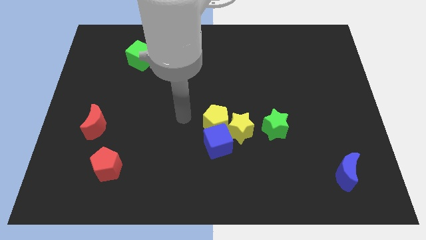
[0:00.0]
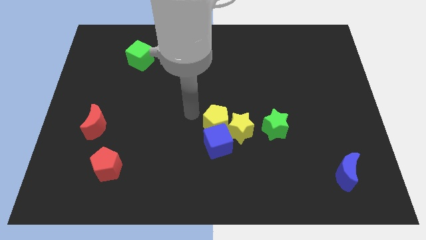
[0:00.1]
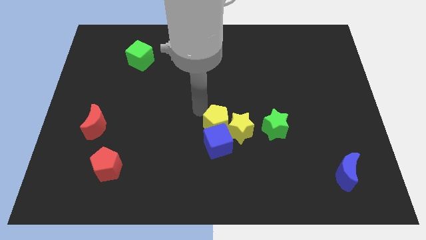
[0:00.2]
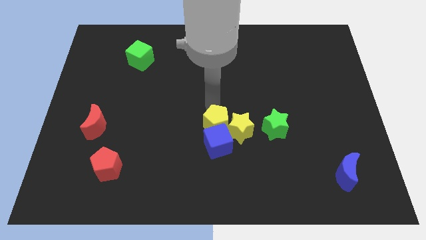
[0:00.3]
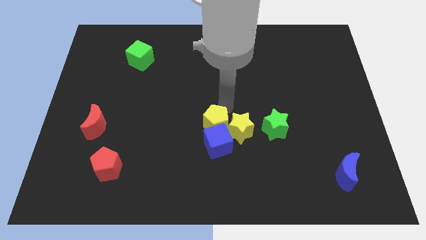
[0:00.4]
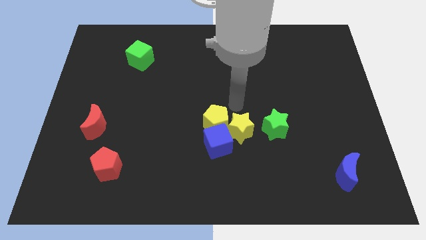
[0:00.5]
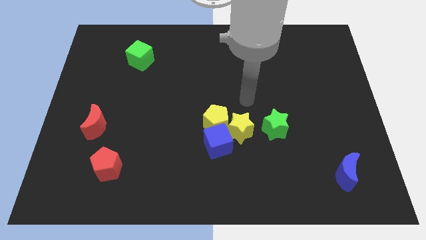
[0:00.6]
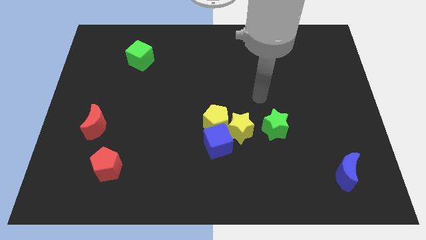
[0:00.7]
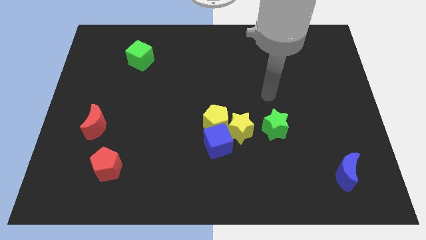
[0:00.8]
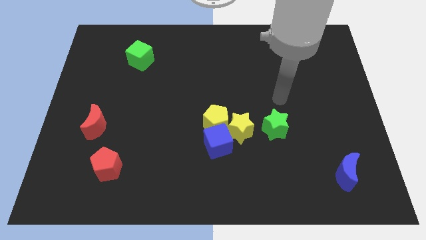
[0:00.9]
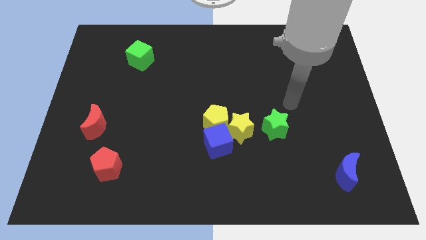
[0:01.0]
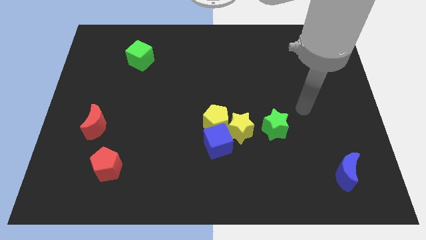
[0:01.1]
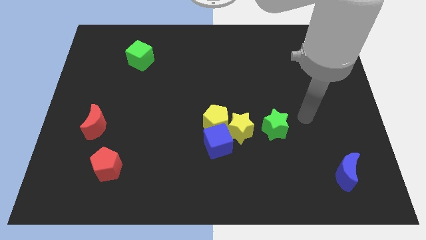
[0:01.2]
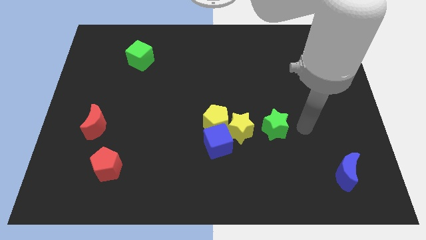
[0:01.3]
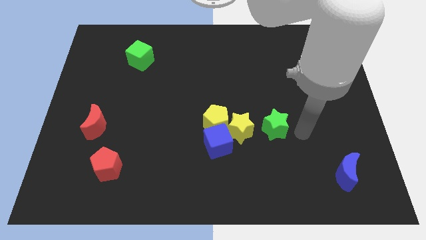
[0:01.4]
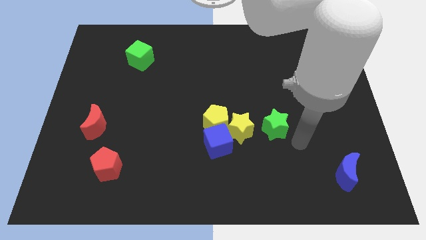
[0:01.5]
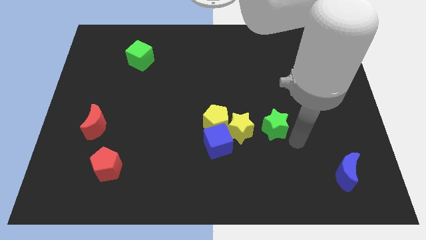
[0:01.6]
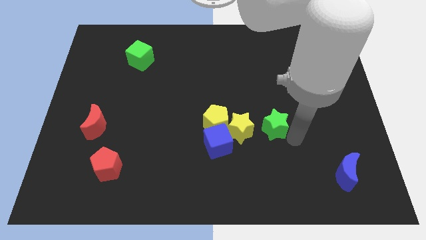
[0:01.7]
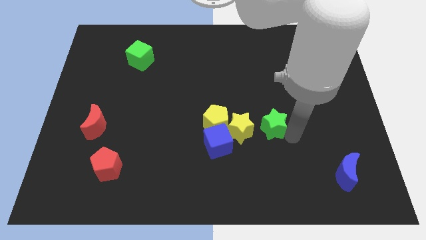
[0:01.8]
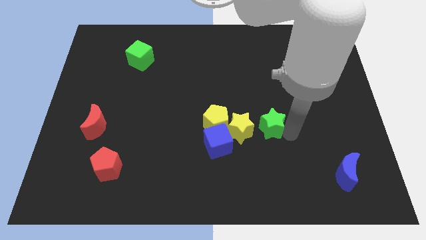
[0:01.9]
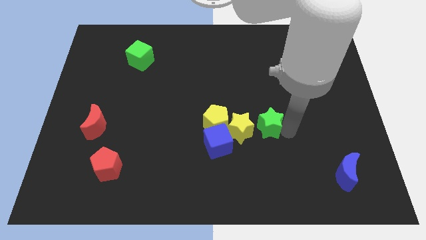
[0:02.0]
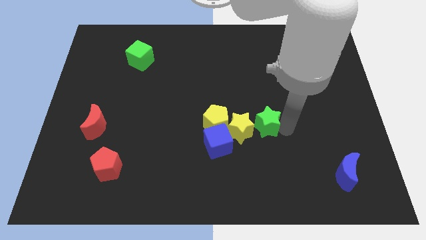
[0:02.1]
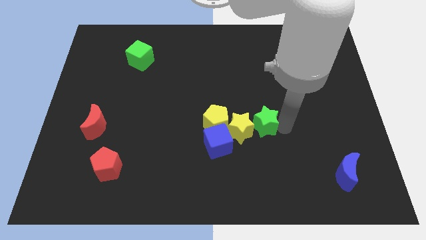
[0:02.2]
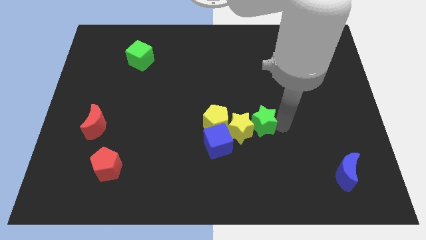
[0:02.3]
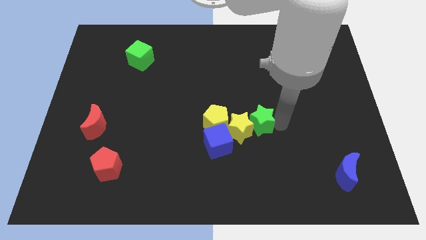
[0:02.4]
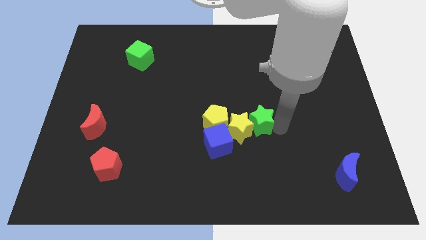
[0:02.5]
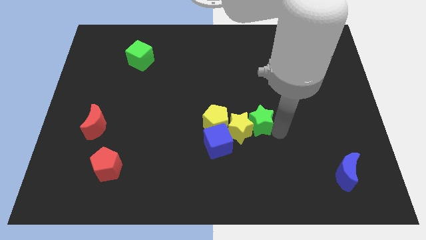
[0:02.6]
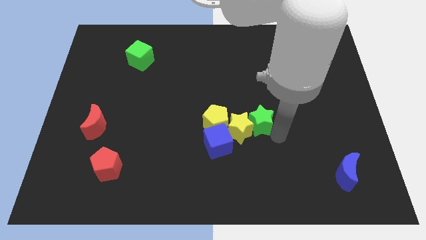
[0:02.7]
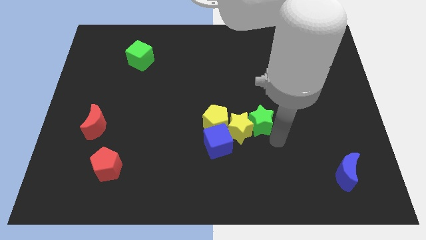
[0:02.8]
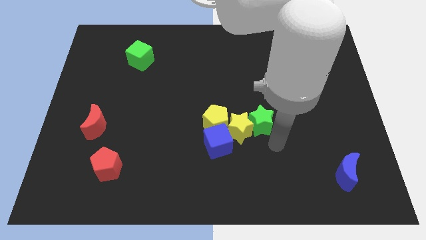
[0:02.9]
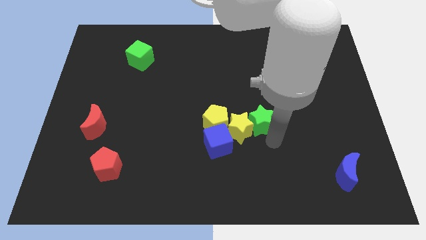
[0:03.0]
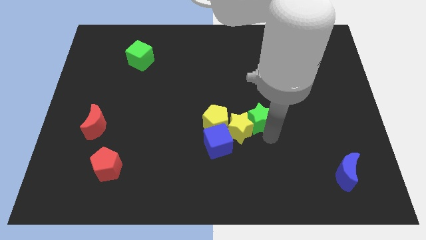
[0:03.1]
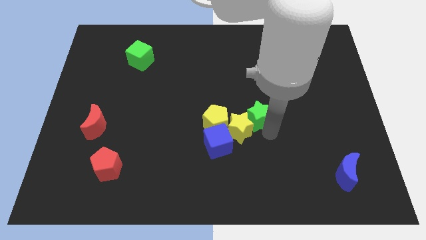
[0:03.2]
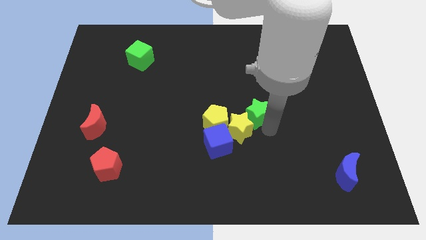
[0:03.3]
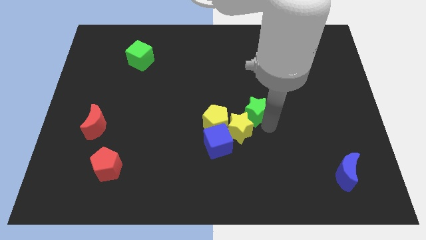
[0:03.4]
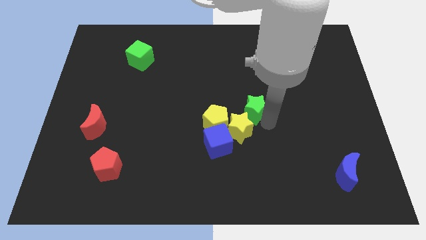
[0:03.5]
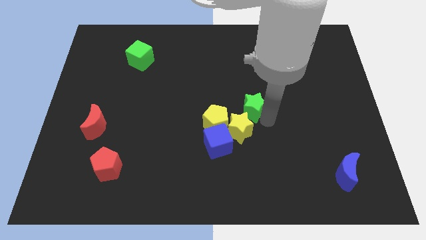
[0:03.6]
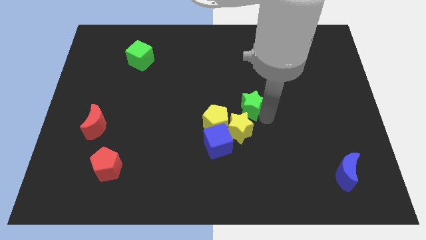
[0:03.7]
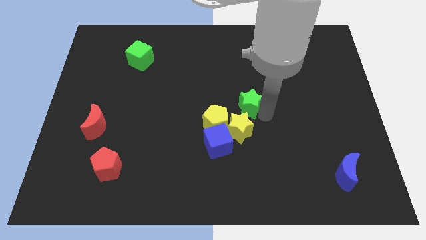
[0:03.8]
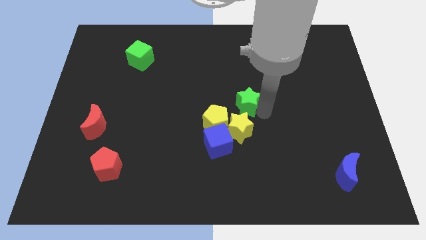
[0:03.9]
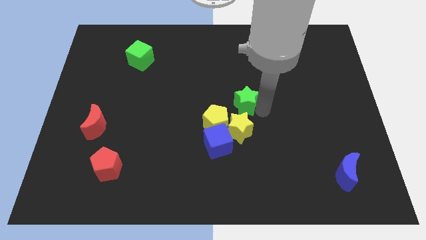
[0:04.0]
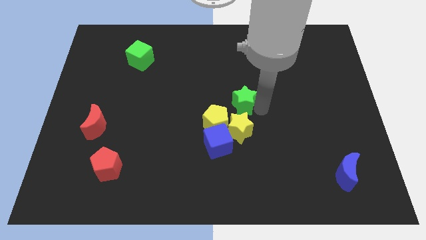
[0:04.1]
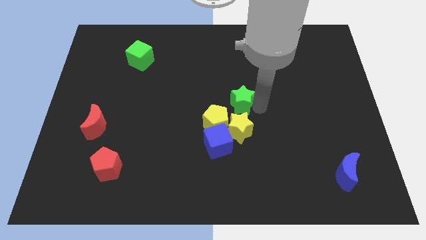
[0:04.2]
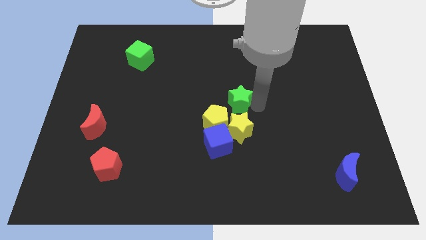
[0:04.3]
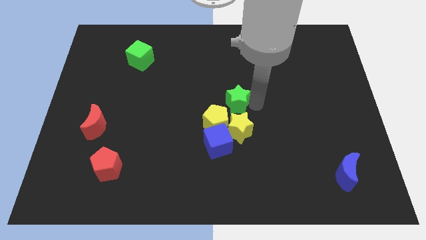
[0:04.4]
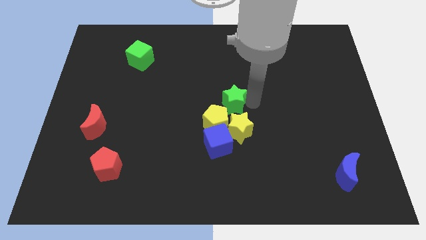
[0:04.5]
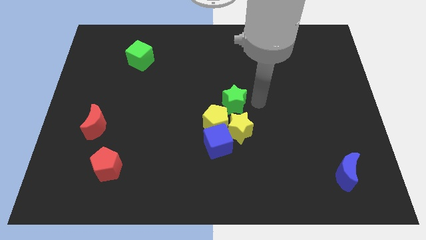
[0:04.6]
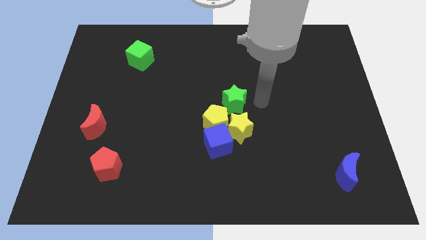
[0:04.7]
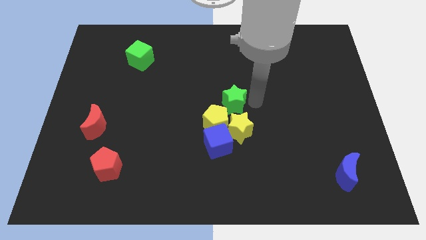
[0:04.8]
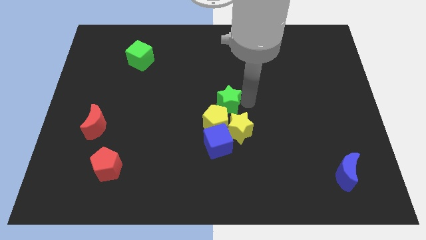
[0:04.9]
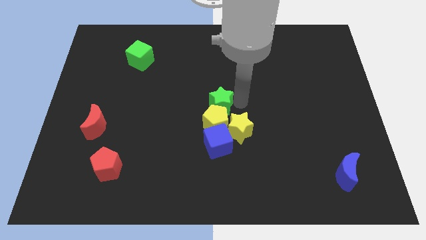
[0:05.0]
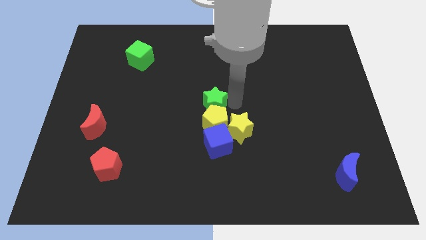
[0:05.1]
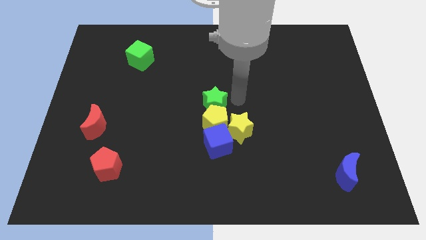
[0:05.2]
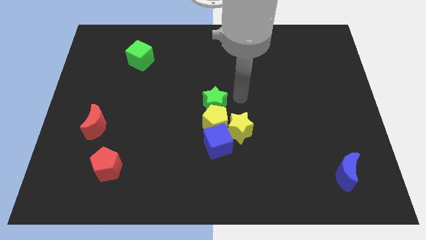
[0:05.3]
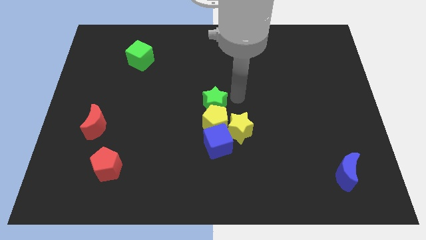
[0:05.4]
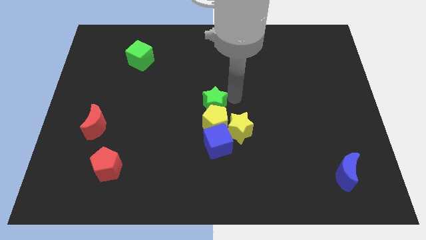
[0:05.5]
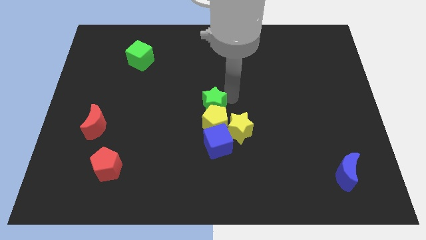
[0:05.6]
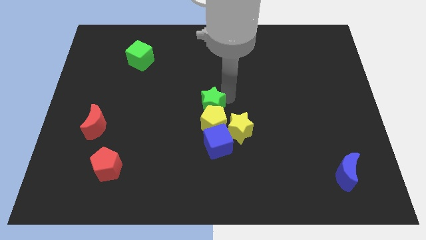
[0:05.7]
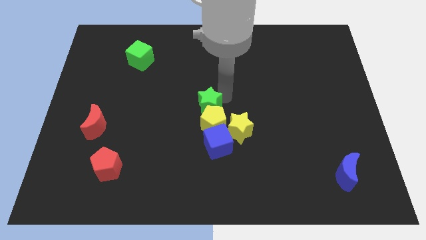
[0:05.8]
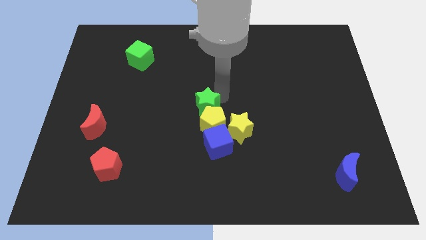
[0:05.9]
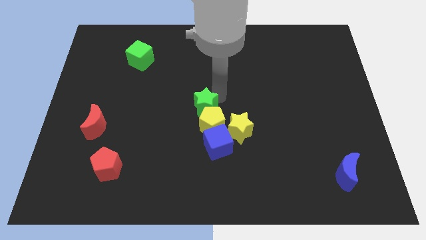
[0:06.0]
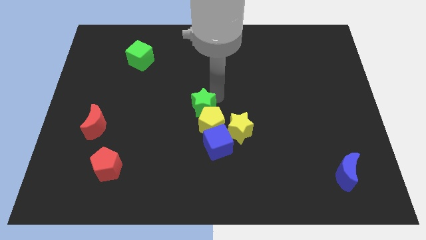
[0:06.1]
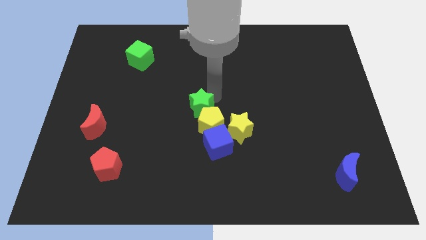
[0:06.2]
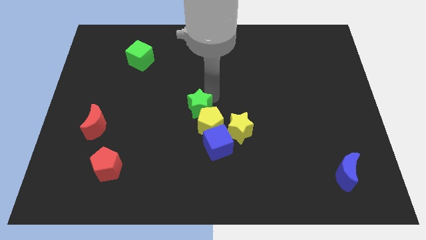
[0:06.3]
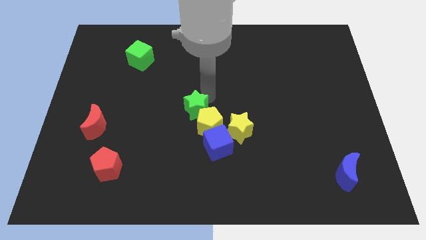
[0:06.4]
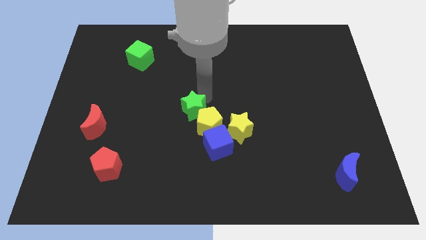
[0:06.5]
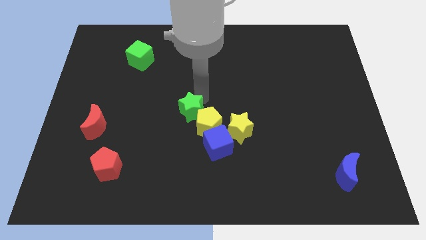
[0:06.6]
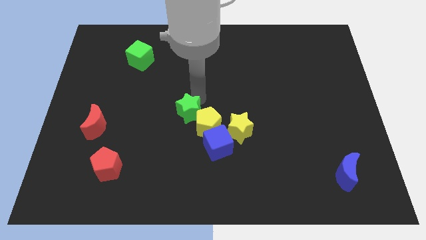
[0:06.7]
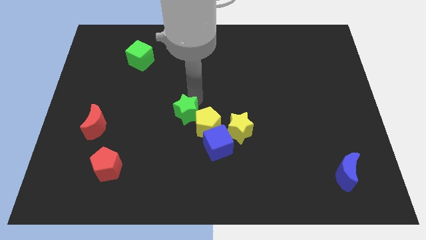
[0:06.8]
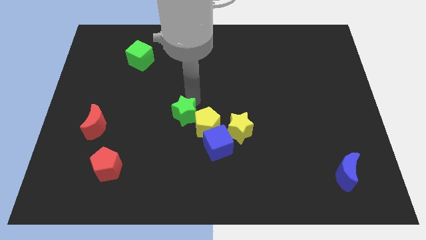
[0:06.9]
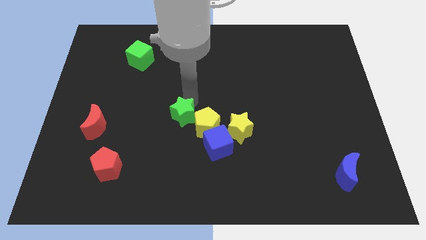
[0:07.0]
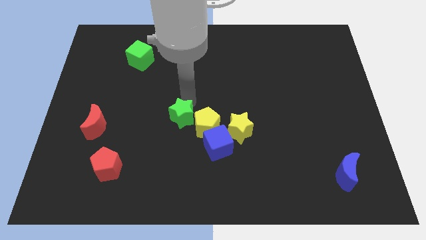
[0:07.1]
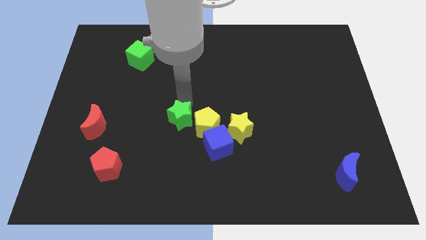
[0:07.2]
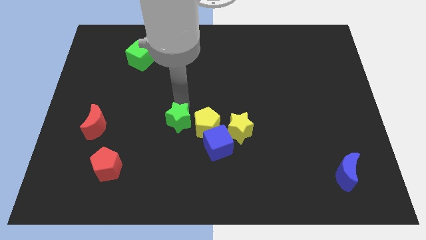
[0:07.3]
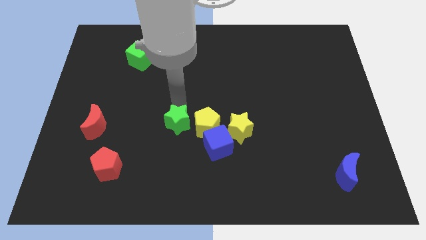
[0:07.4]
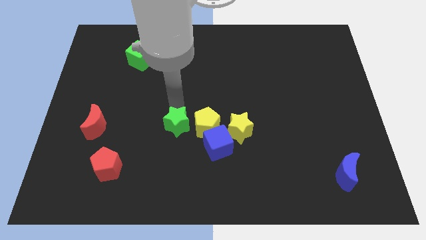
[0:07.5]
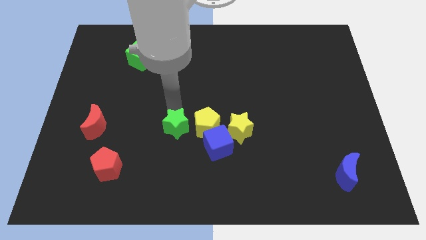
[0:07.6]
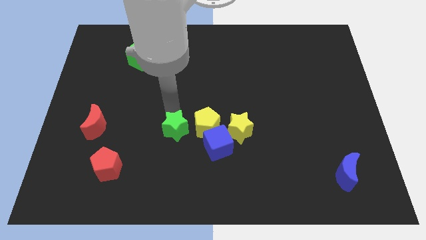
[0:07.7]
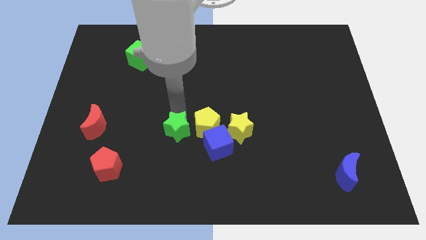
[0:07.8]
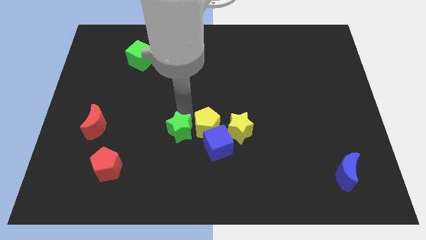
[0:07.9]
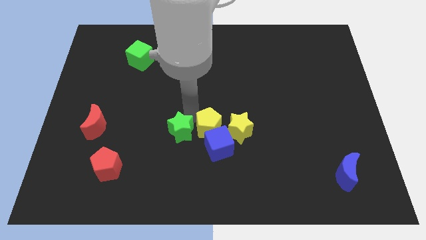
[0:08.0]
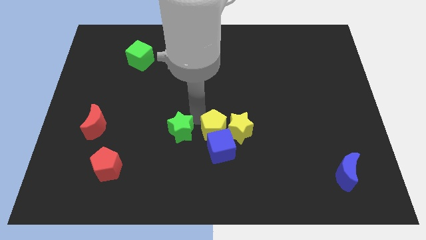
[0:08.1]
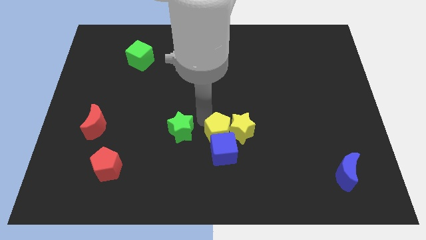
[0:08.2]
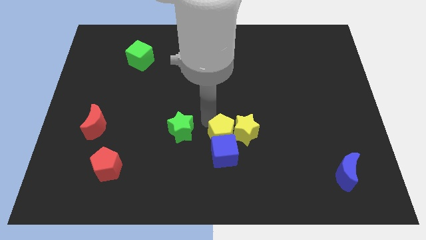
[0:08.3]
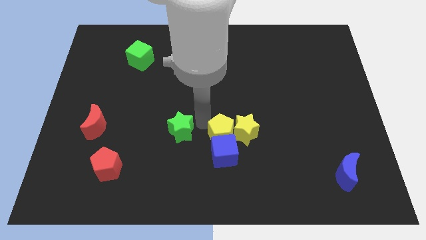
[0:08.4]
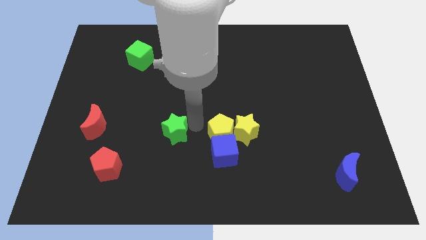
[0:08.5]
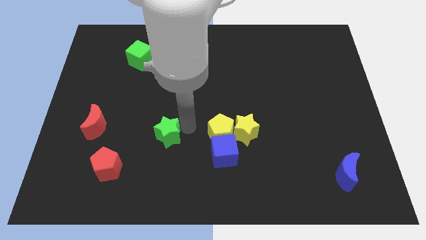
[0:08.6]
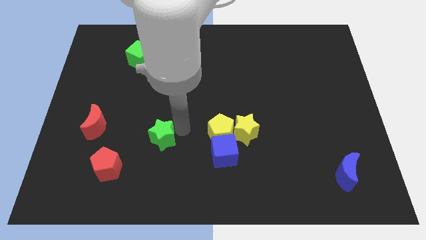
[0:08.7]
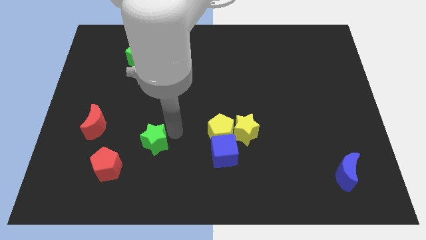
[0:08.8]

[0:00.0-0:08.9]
put the green star to the top right of the red pentagon
